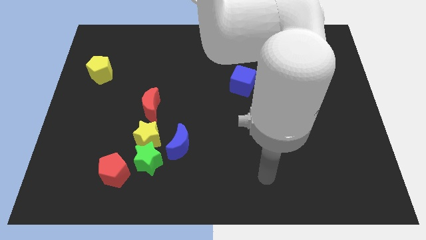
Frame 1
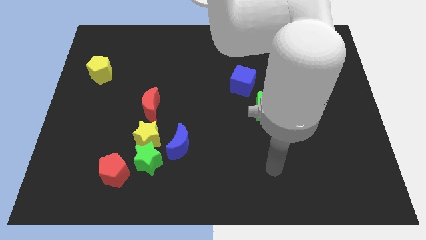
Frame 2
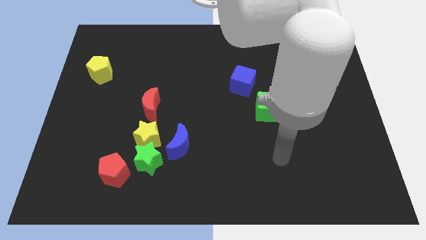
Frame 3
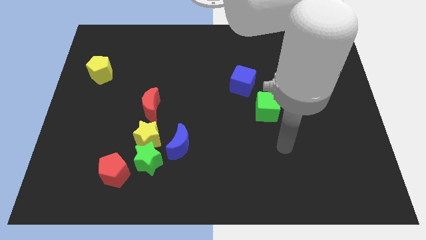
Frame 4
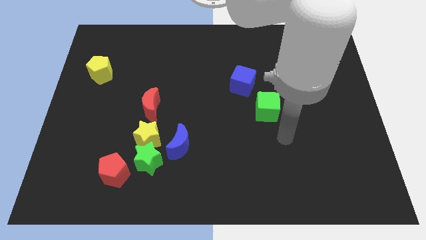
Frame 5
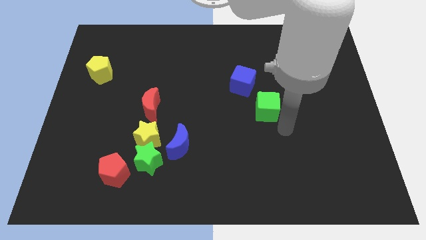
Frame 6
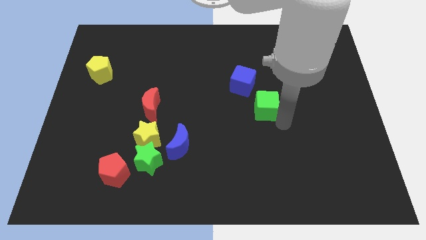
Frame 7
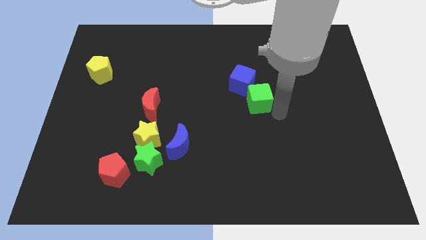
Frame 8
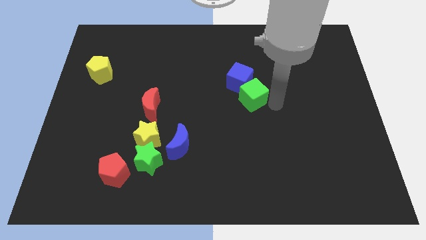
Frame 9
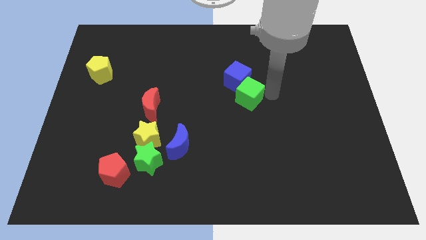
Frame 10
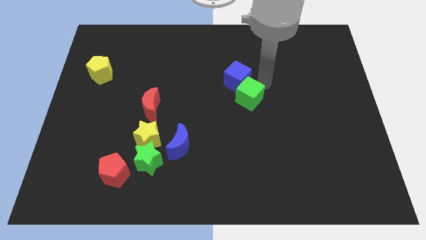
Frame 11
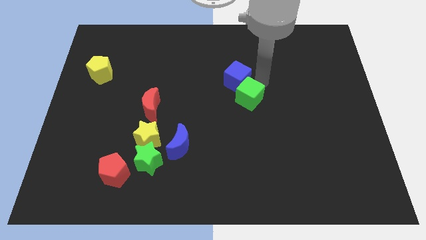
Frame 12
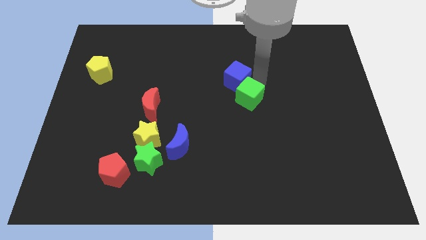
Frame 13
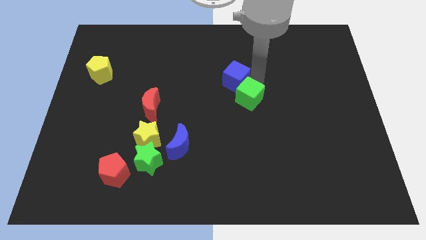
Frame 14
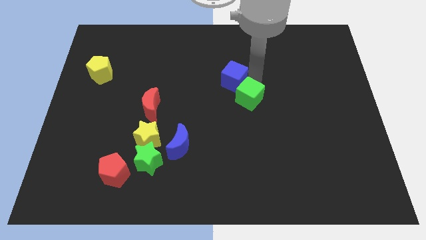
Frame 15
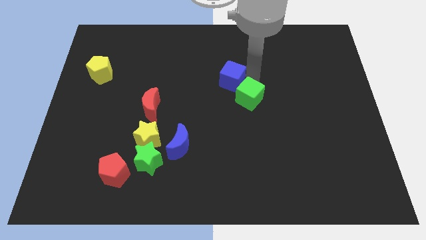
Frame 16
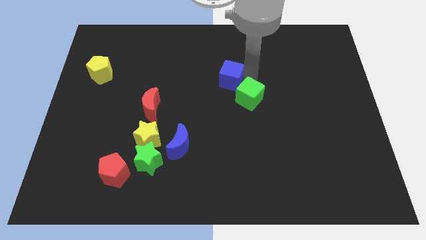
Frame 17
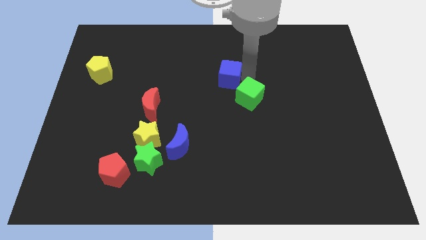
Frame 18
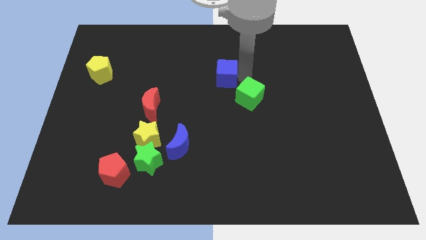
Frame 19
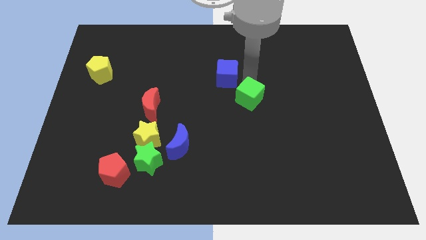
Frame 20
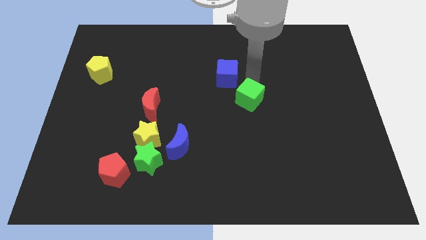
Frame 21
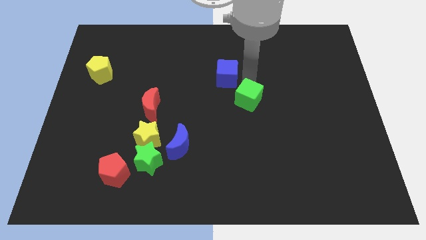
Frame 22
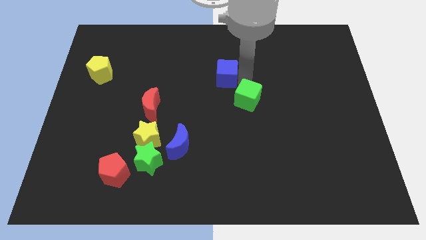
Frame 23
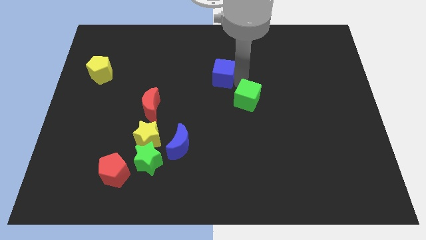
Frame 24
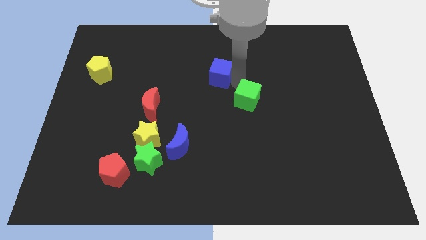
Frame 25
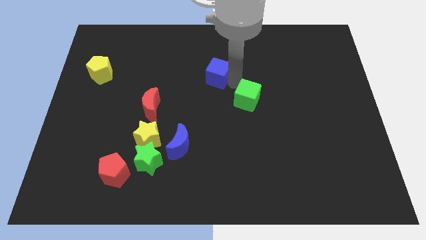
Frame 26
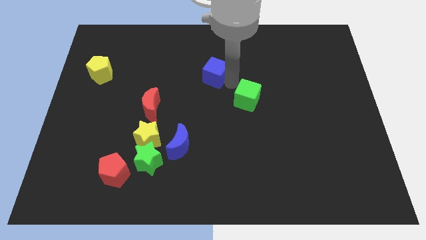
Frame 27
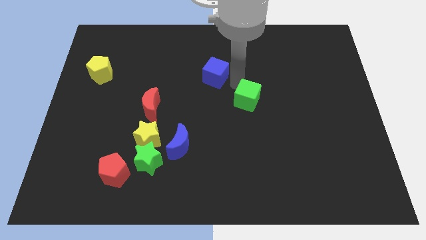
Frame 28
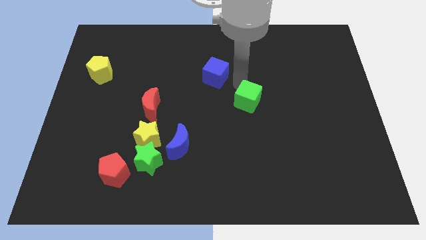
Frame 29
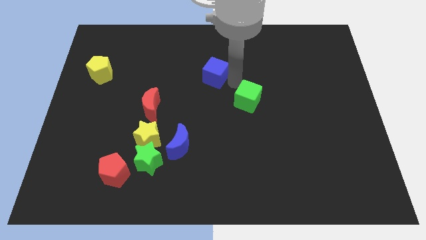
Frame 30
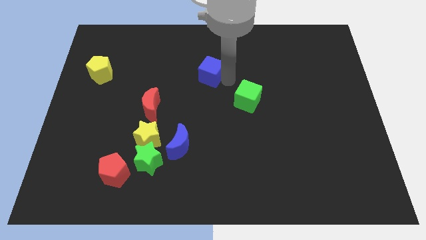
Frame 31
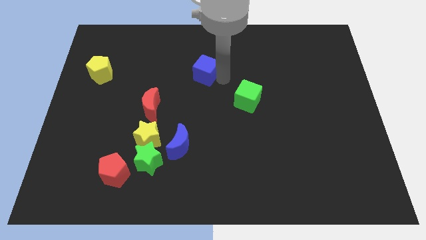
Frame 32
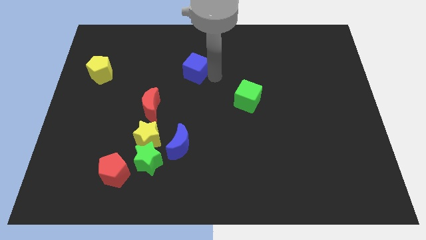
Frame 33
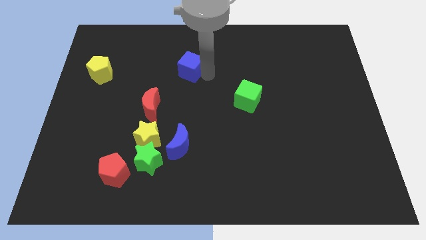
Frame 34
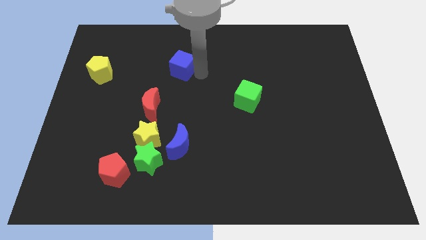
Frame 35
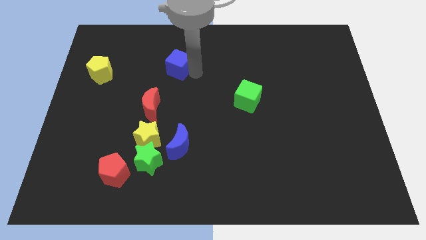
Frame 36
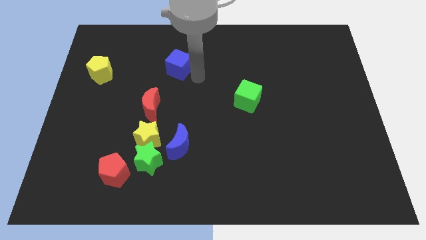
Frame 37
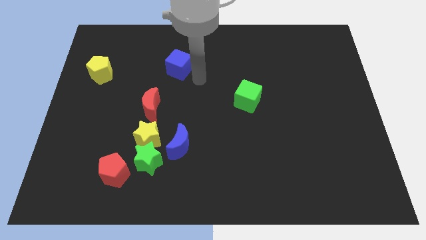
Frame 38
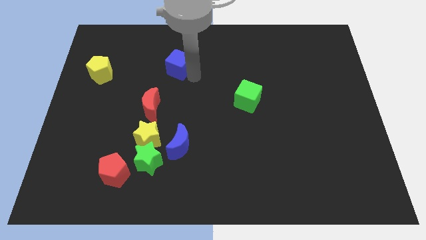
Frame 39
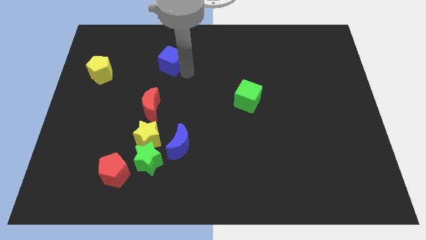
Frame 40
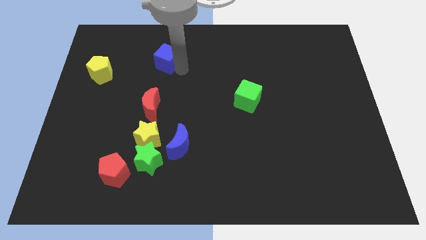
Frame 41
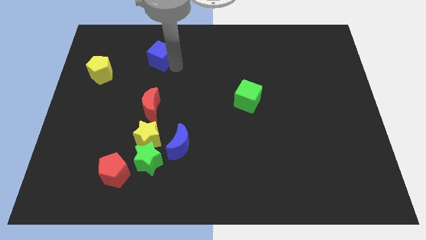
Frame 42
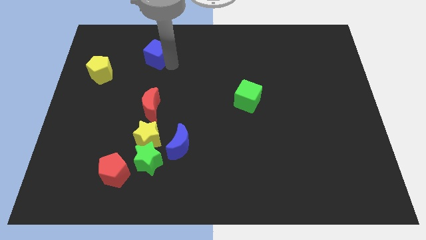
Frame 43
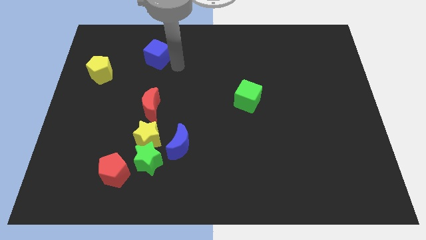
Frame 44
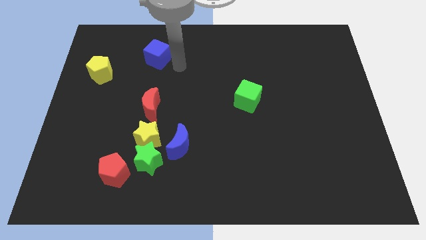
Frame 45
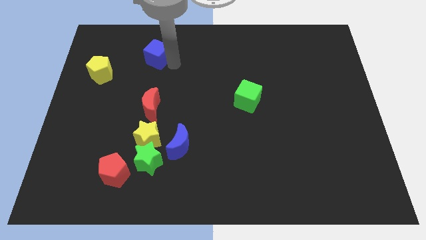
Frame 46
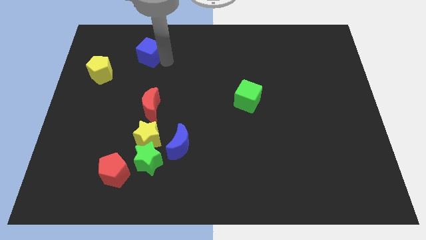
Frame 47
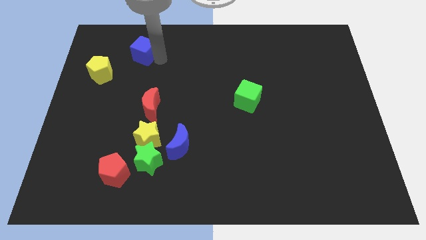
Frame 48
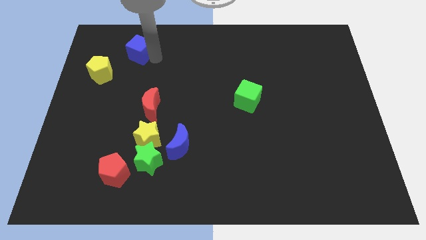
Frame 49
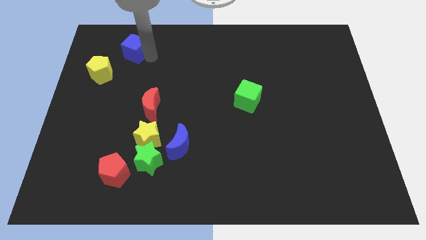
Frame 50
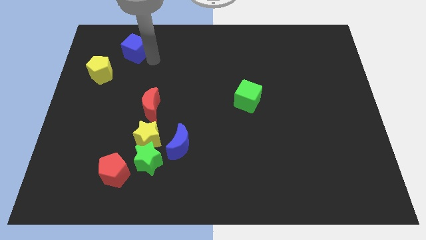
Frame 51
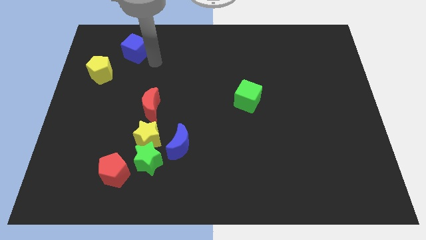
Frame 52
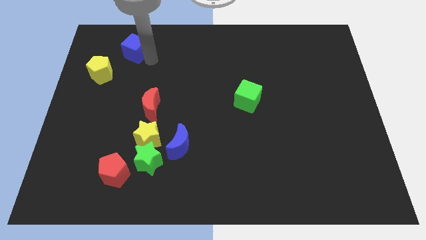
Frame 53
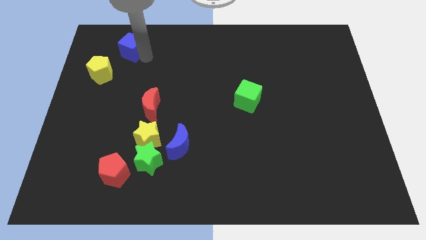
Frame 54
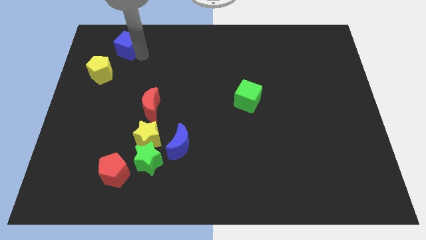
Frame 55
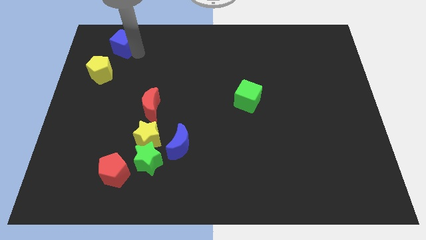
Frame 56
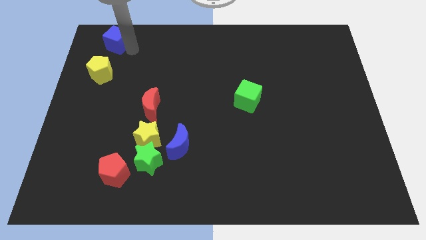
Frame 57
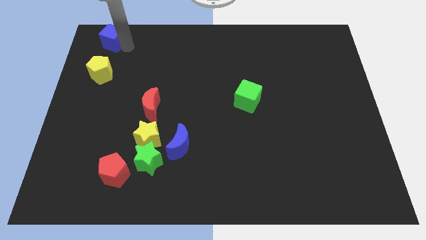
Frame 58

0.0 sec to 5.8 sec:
put the blue cube to the top left

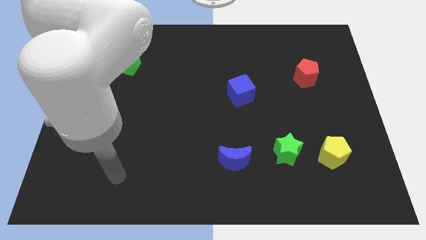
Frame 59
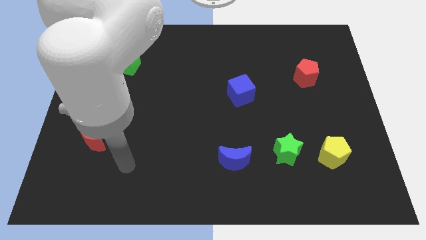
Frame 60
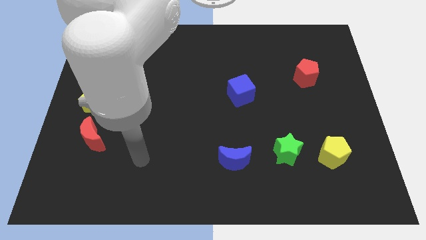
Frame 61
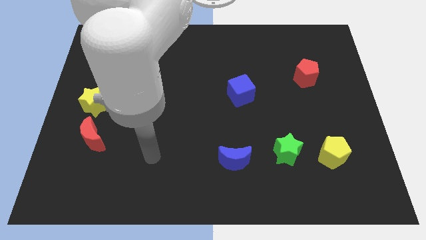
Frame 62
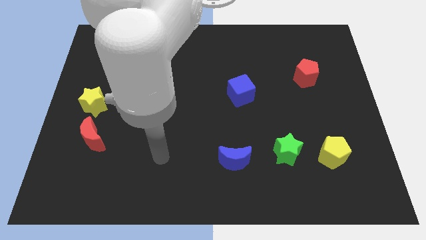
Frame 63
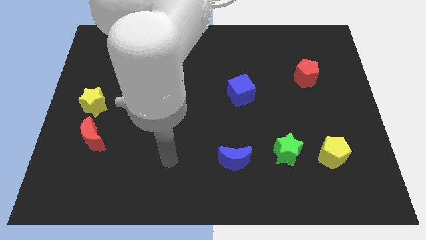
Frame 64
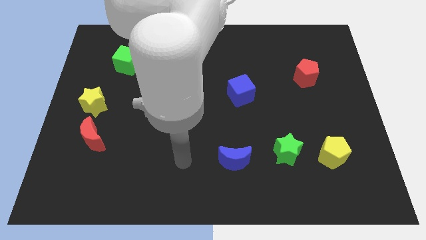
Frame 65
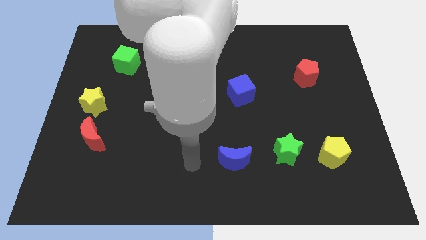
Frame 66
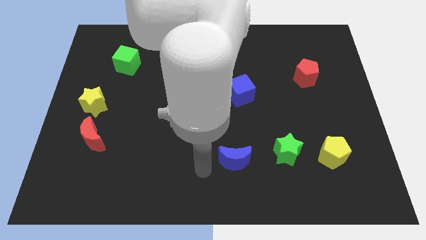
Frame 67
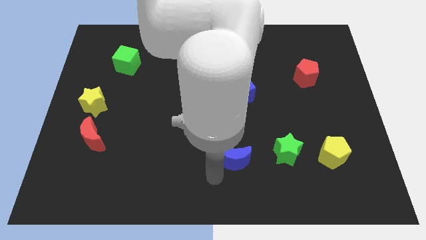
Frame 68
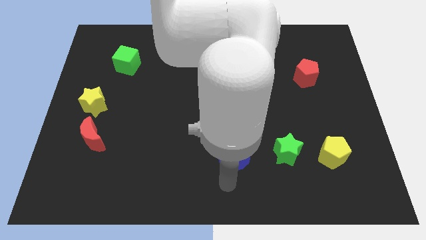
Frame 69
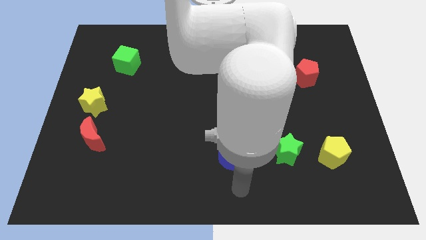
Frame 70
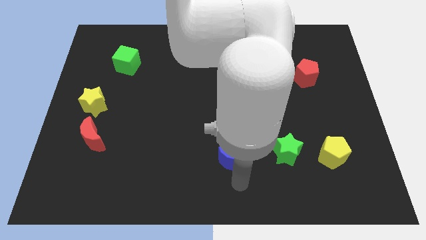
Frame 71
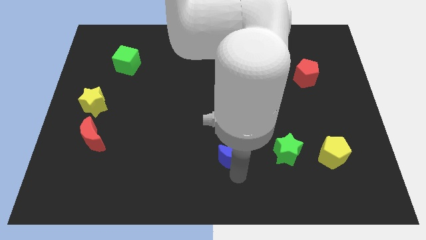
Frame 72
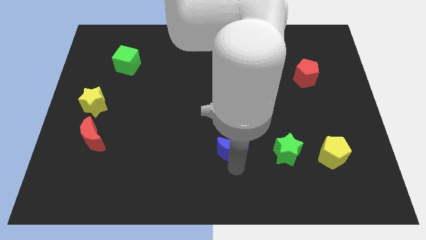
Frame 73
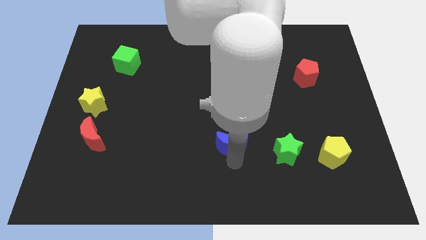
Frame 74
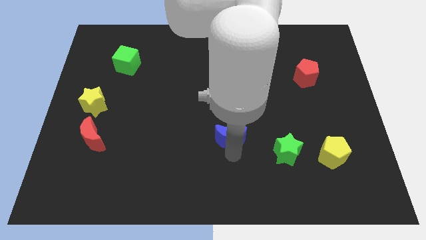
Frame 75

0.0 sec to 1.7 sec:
move the blue moon to the middle of the board

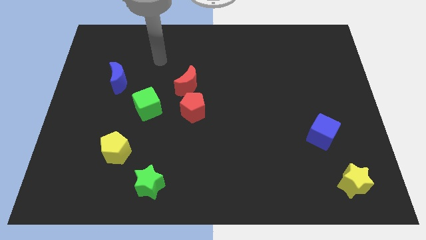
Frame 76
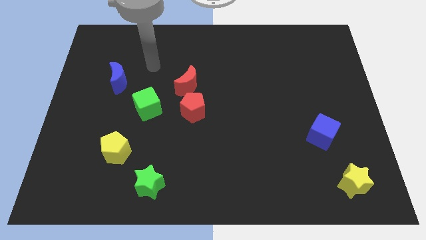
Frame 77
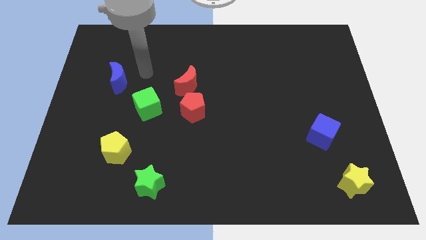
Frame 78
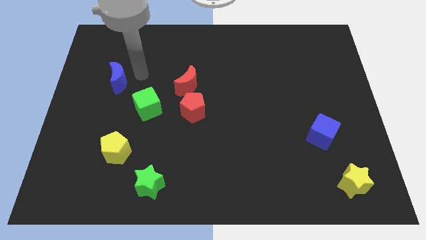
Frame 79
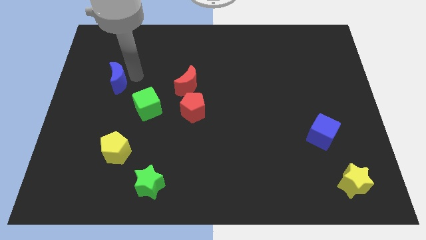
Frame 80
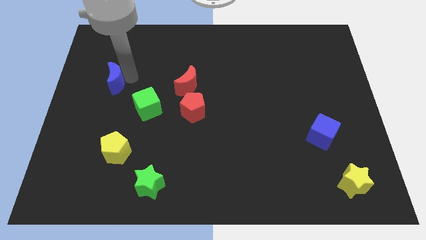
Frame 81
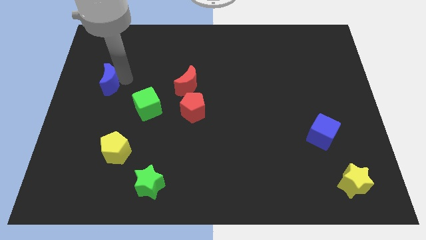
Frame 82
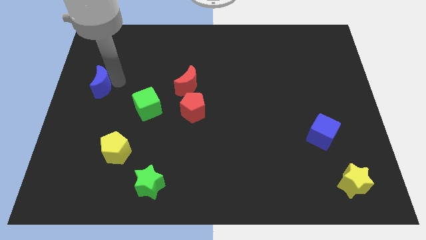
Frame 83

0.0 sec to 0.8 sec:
put the blue moon to the center left
